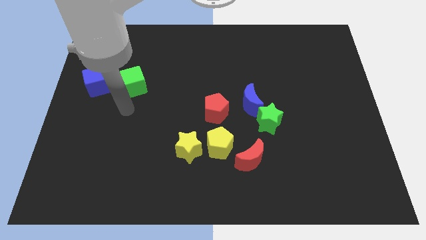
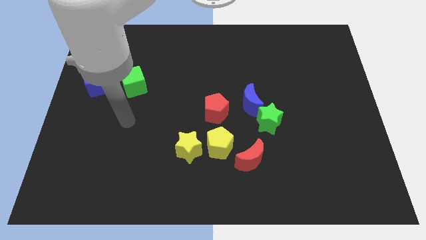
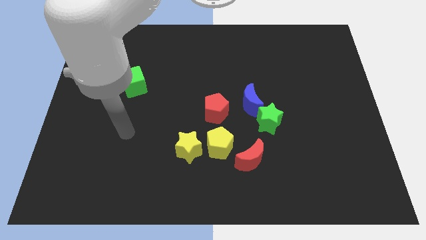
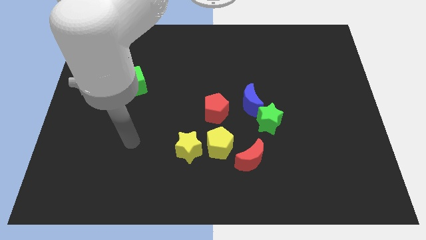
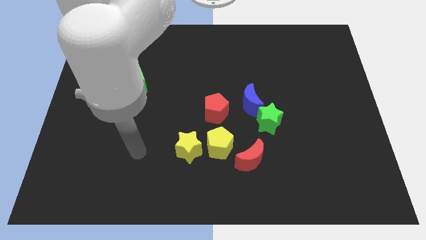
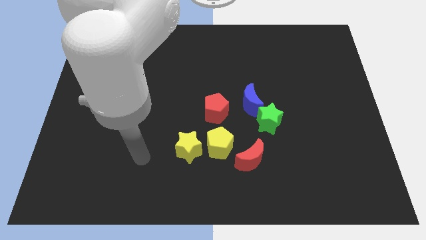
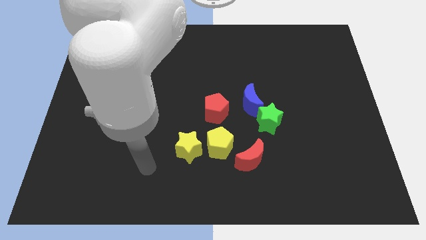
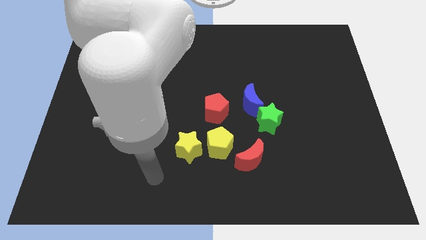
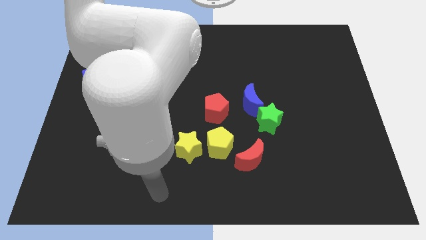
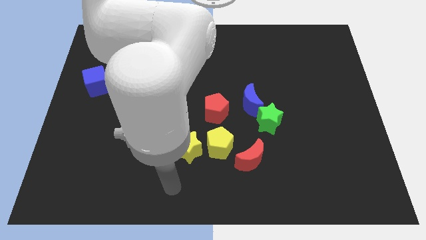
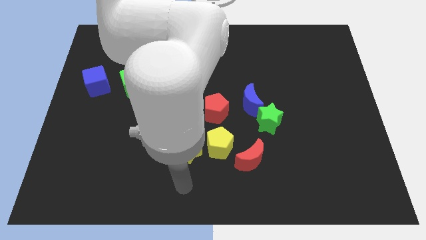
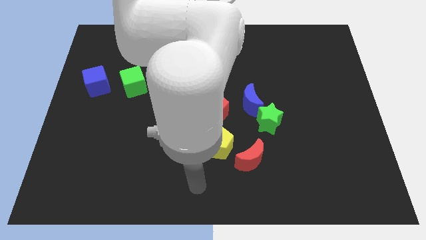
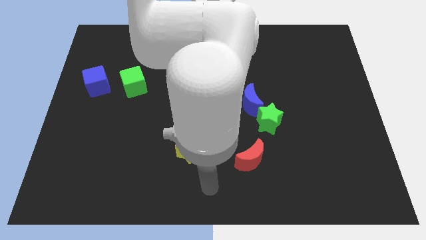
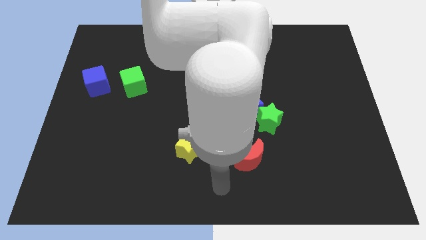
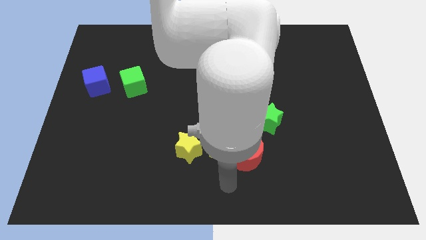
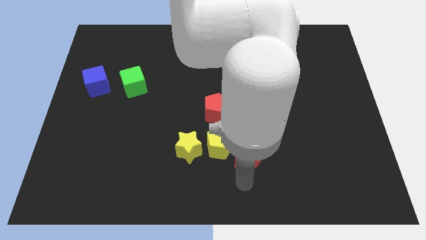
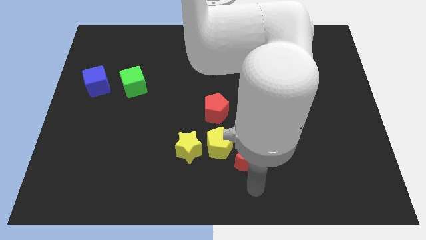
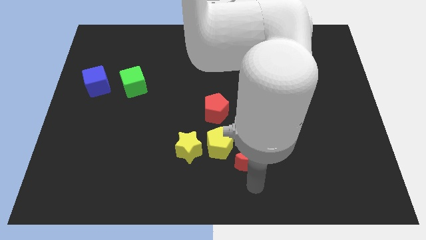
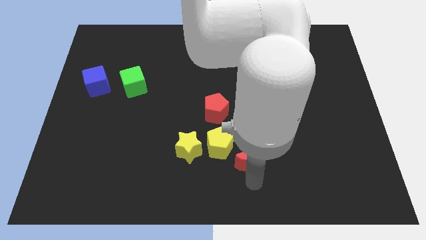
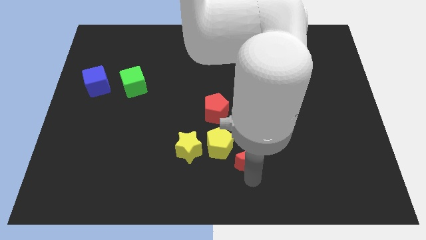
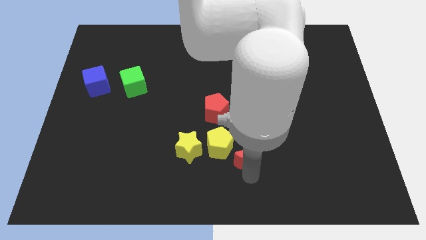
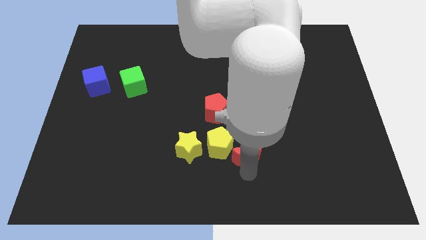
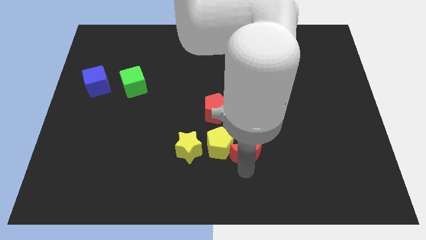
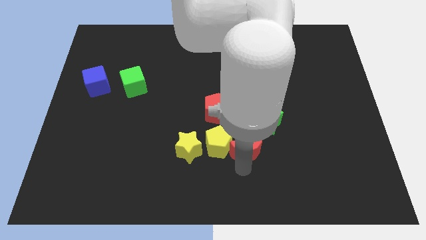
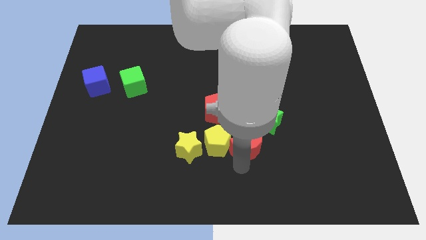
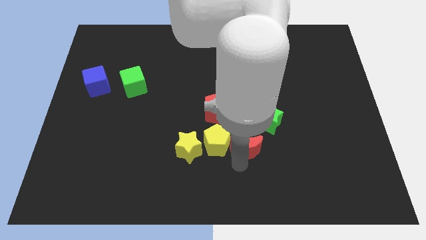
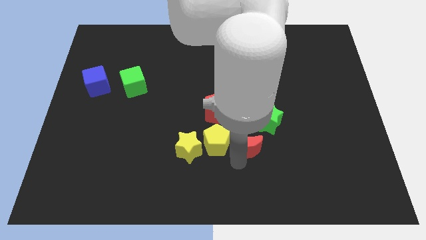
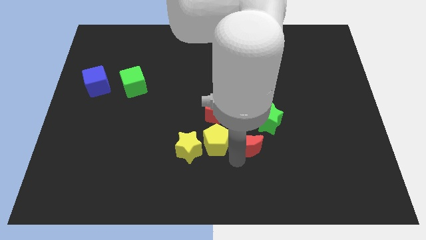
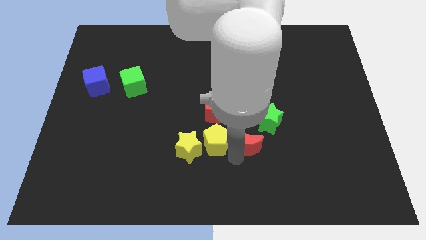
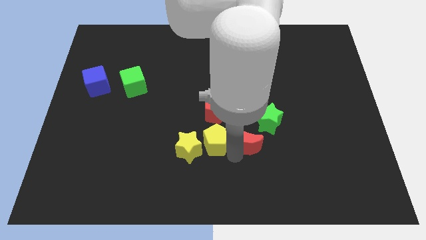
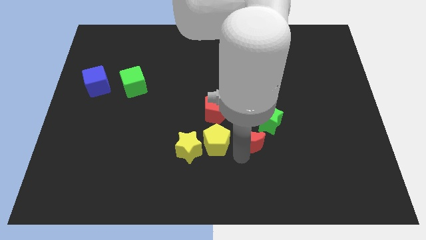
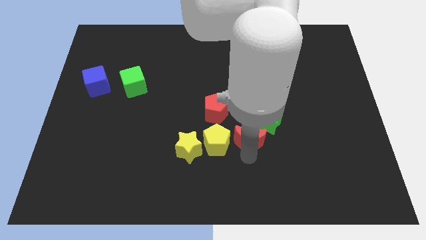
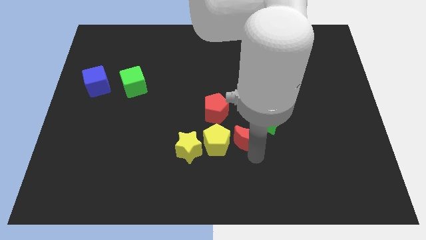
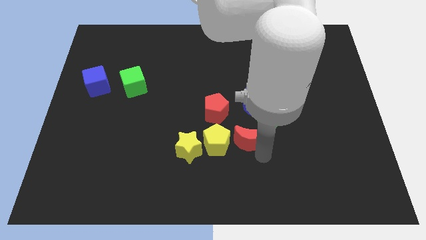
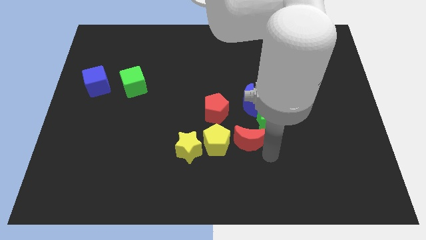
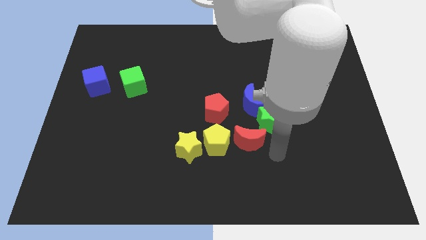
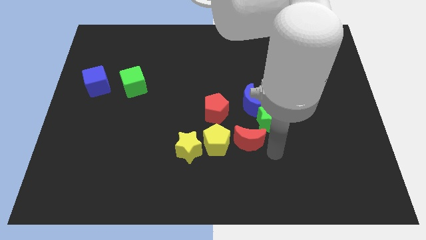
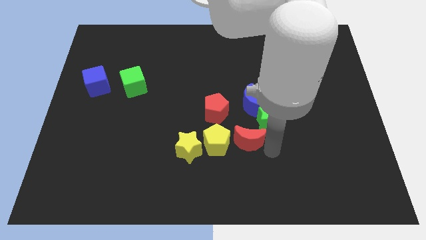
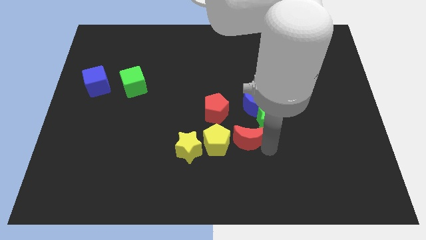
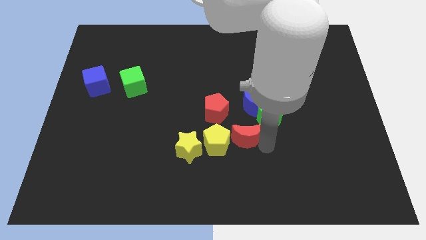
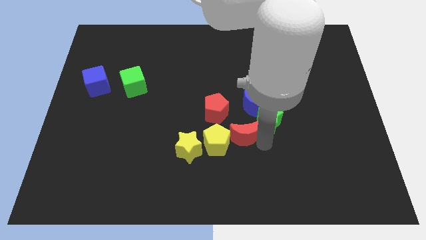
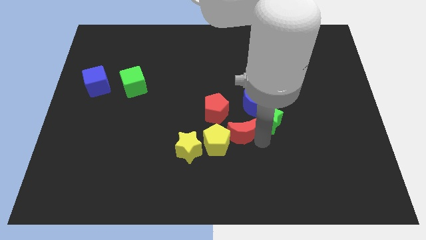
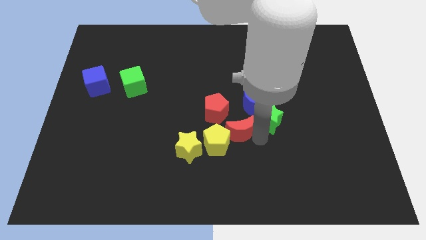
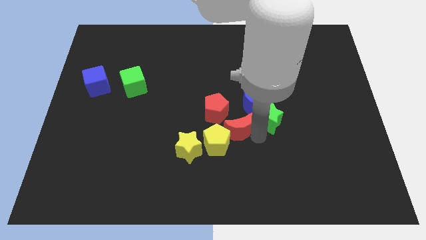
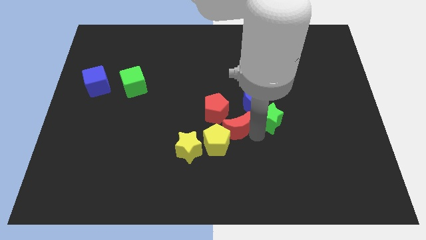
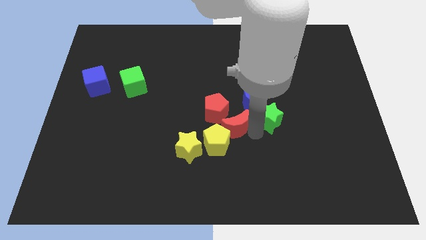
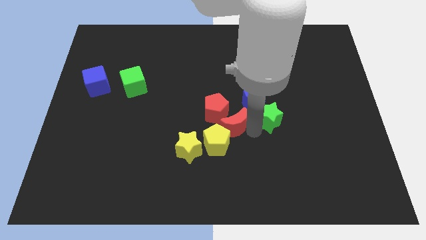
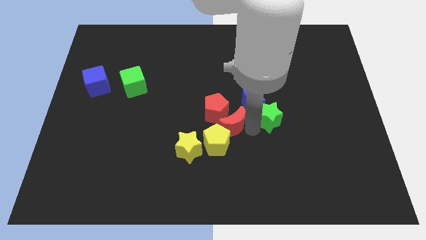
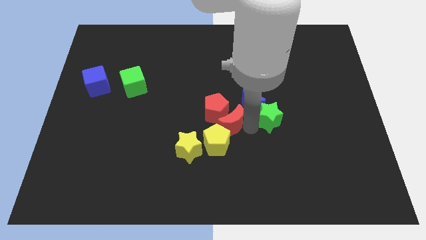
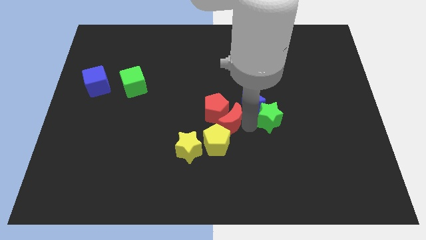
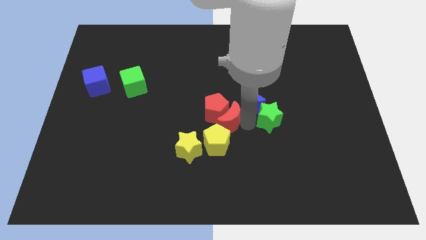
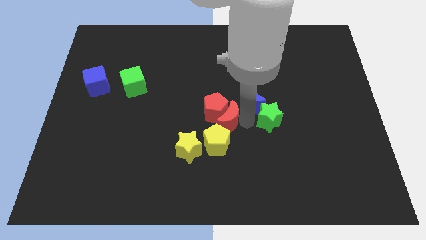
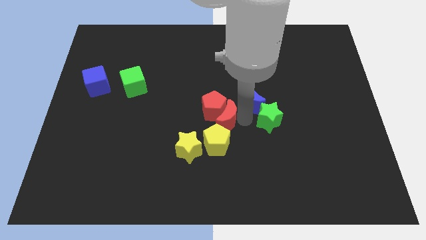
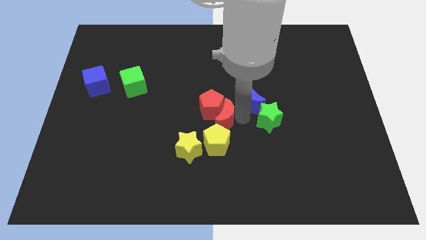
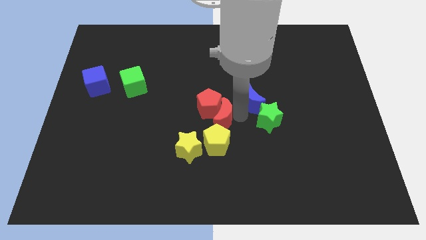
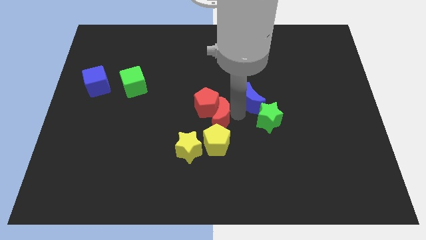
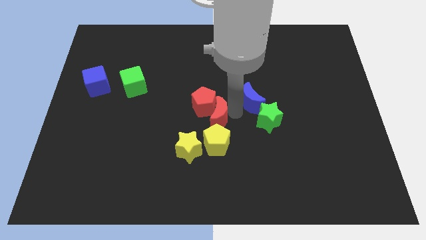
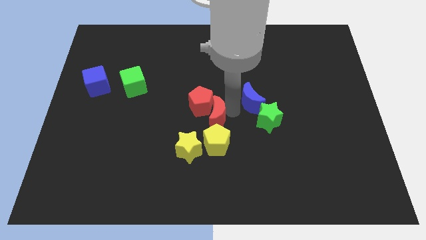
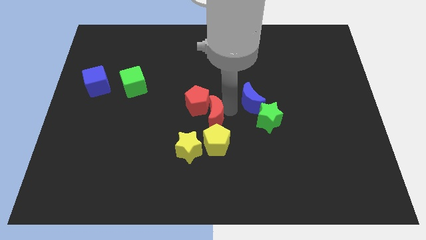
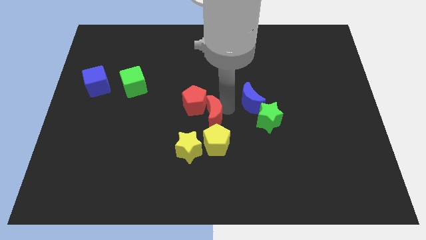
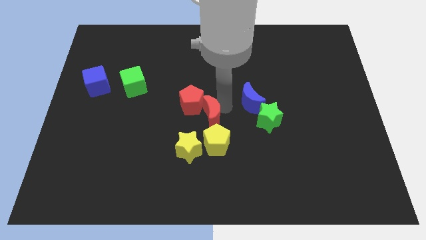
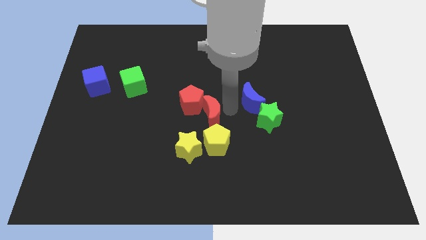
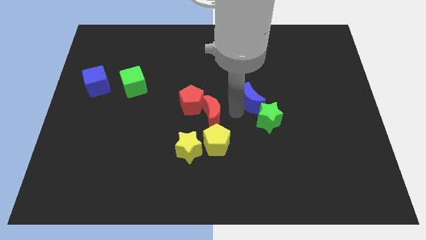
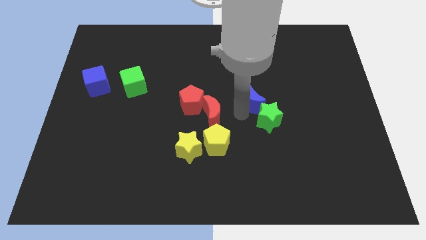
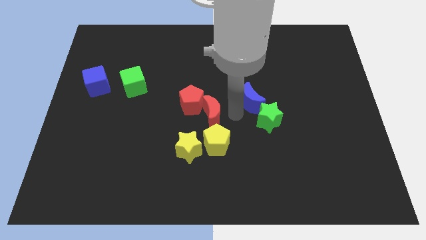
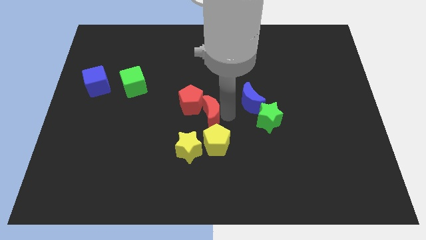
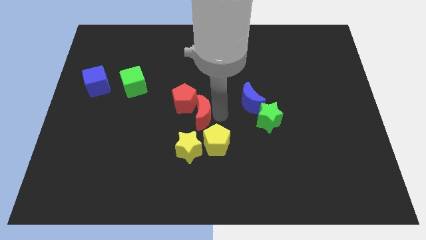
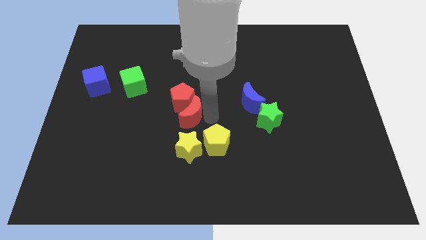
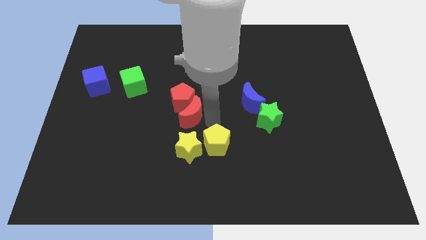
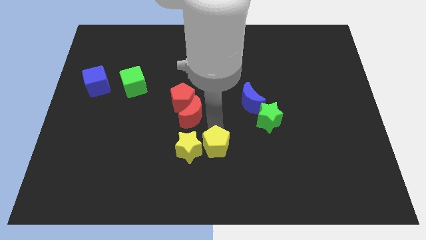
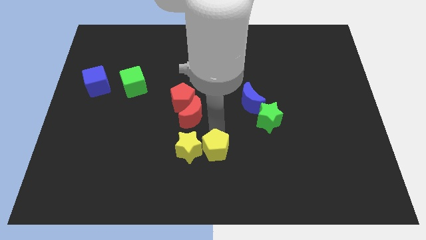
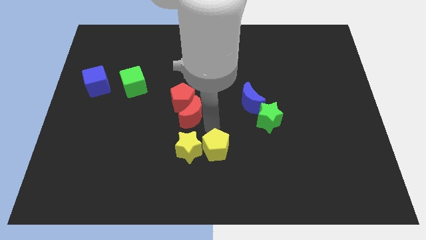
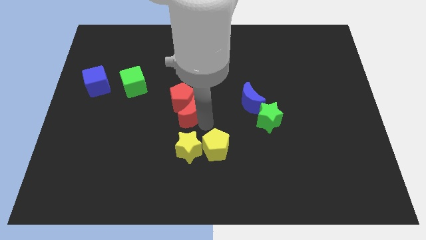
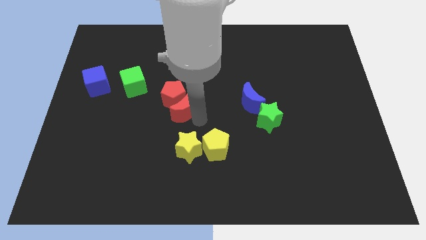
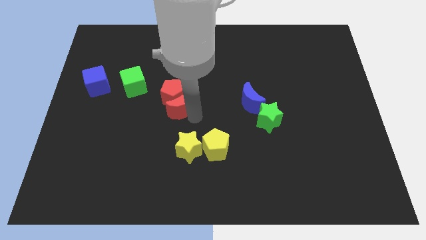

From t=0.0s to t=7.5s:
slide the red moon upwards and then to the left

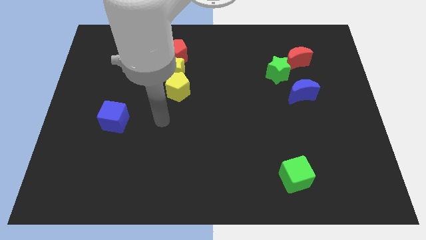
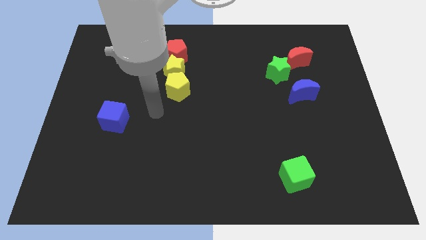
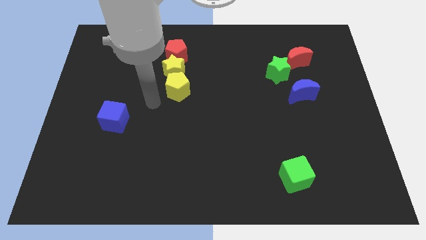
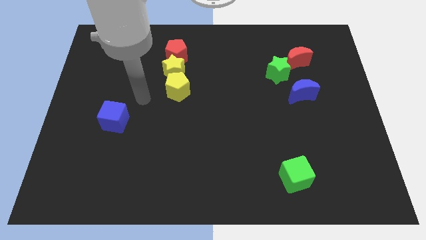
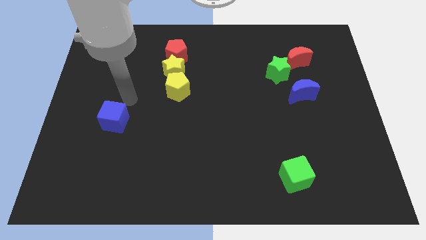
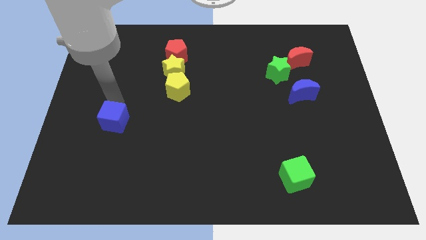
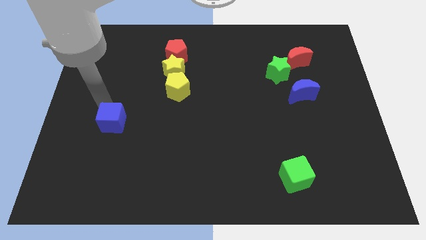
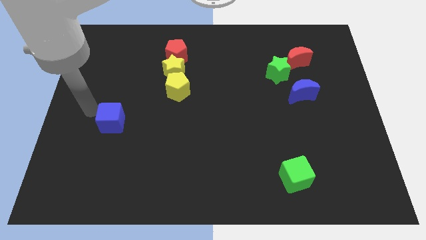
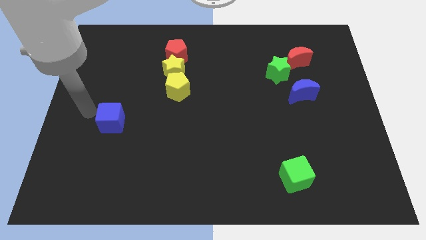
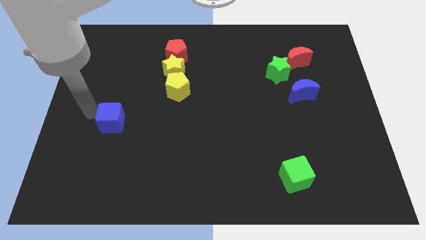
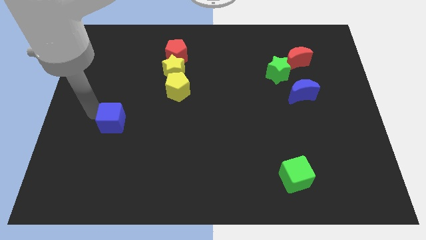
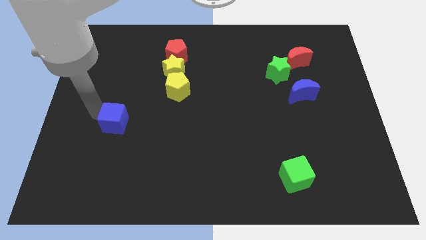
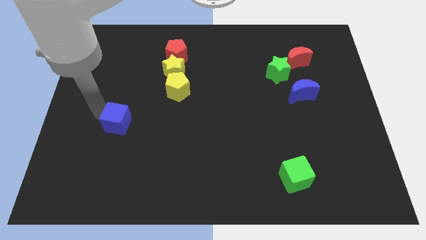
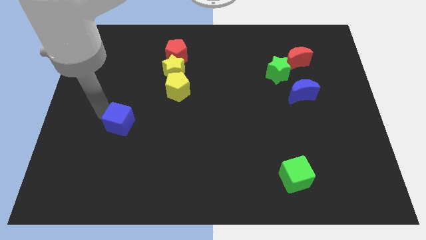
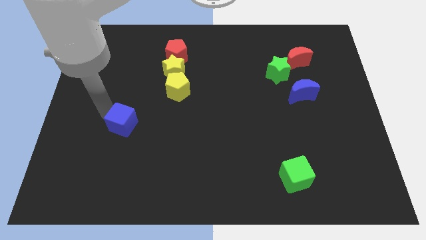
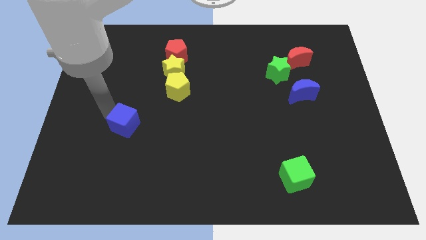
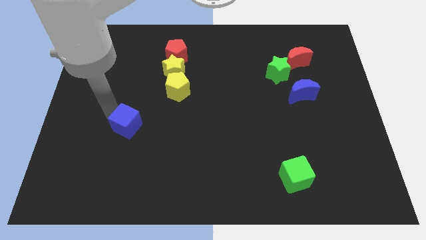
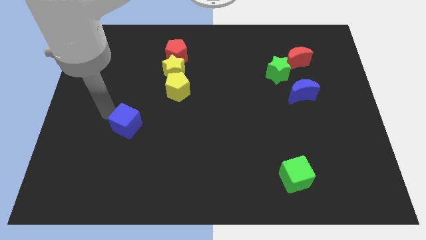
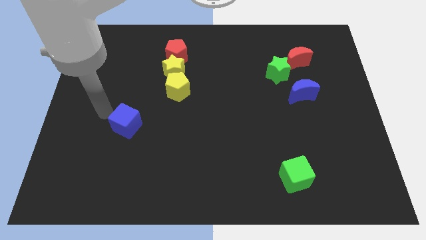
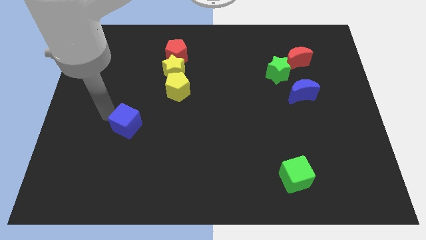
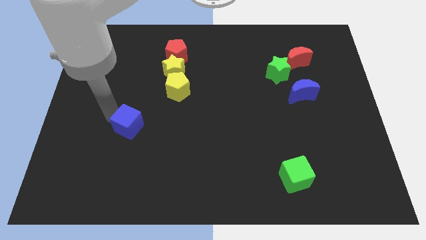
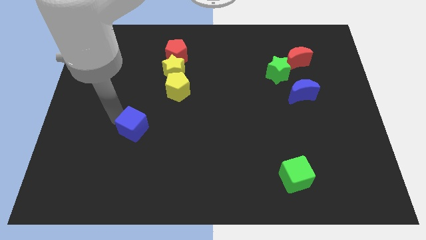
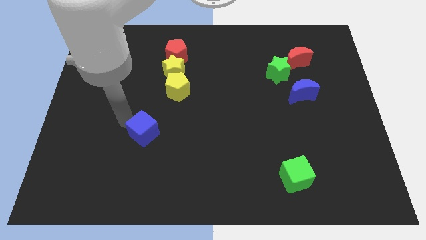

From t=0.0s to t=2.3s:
slightly slide the blue cube downwards and to the right
